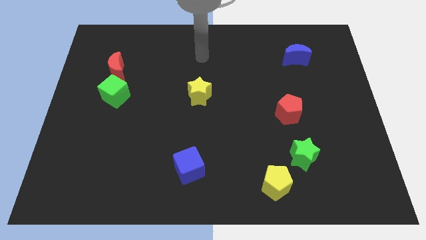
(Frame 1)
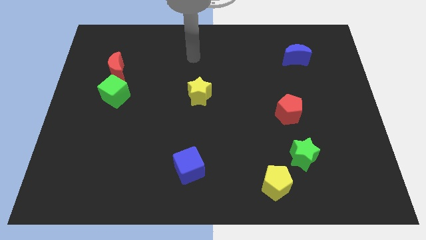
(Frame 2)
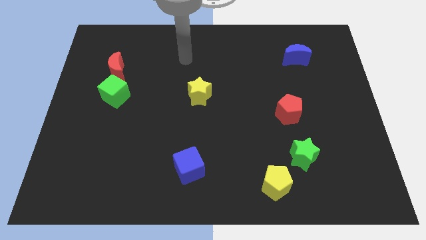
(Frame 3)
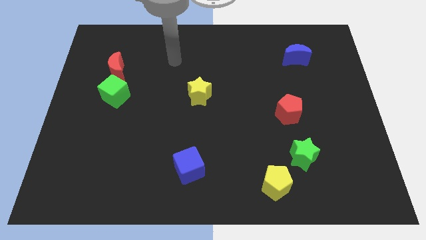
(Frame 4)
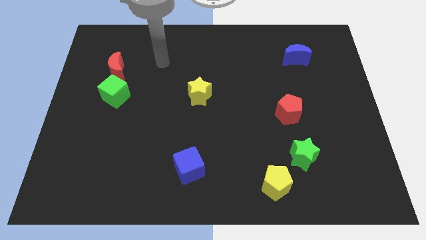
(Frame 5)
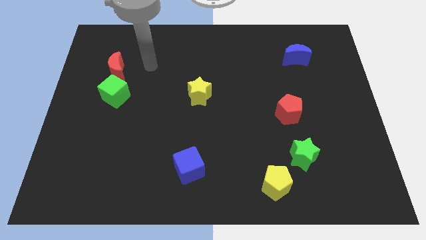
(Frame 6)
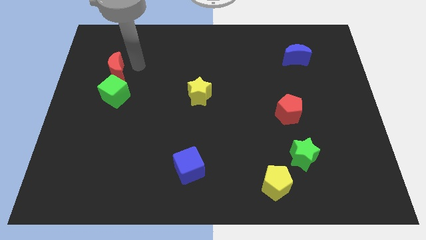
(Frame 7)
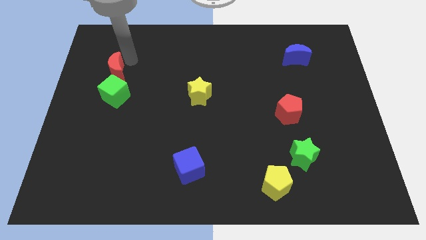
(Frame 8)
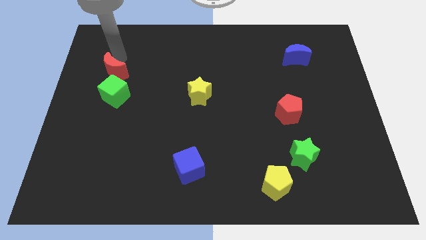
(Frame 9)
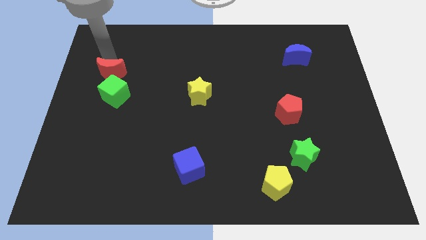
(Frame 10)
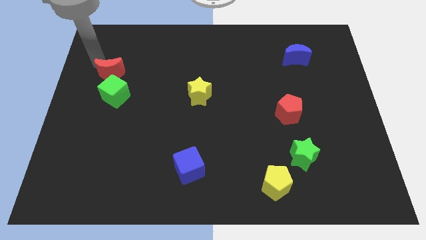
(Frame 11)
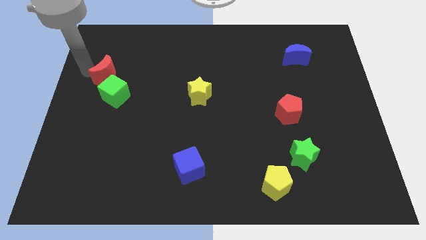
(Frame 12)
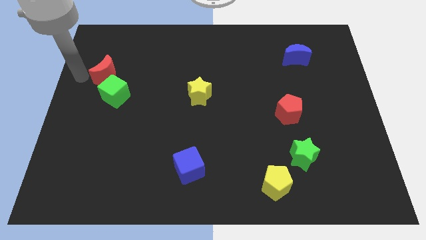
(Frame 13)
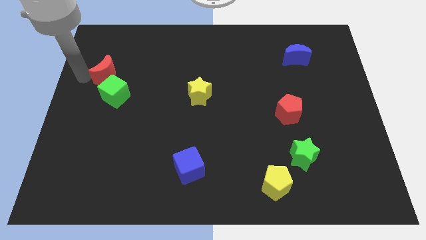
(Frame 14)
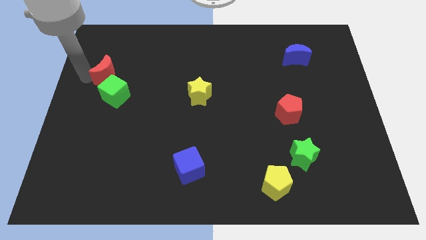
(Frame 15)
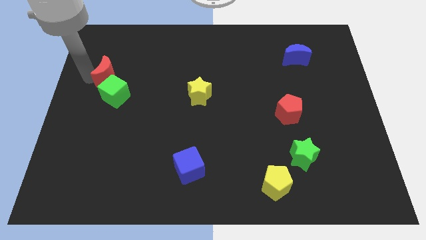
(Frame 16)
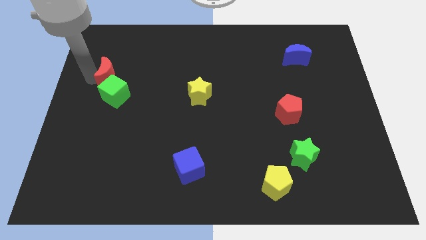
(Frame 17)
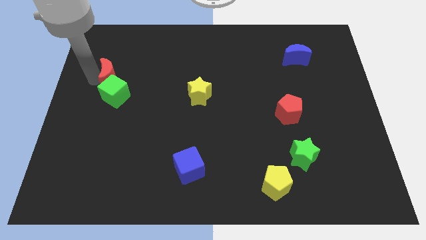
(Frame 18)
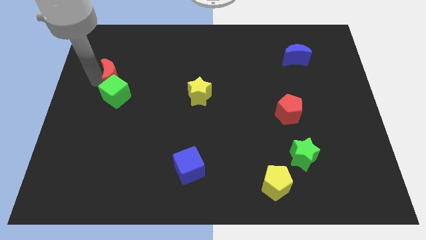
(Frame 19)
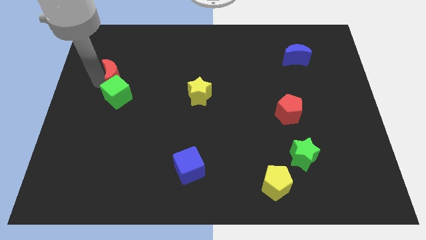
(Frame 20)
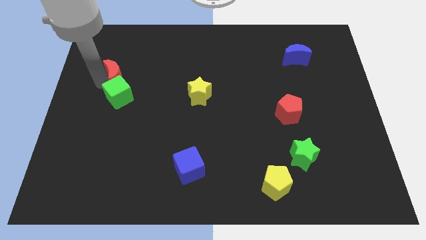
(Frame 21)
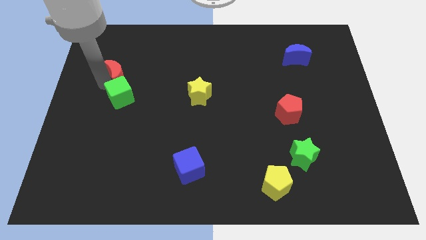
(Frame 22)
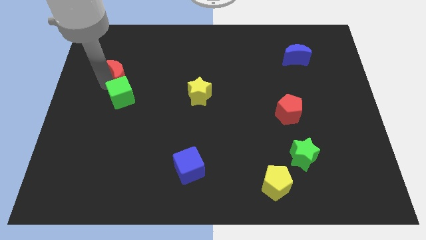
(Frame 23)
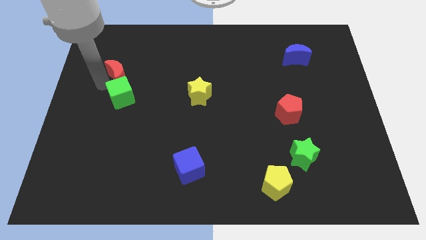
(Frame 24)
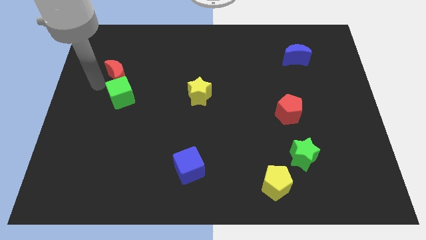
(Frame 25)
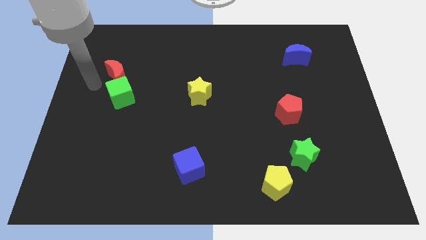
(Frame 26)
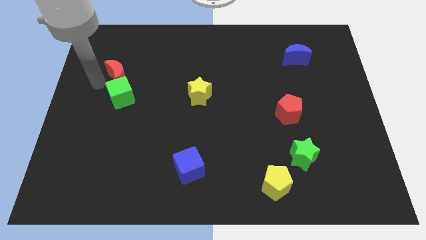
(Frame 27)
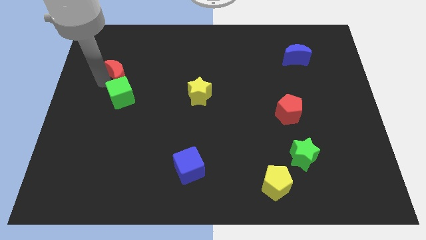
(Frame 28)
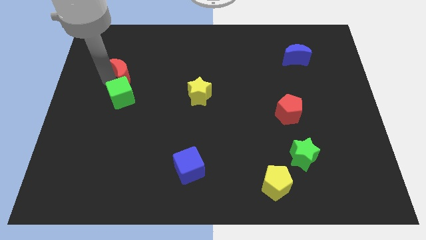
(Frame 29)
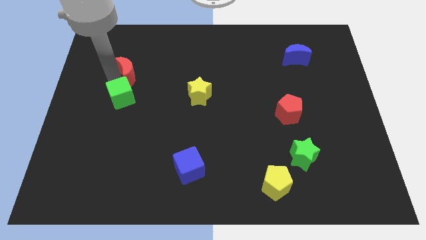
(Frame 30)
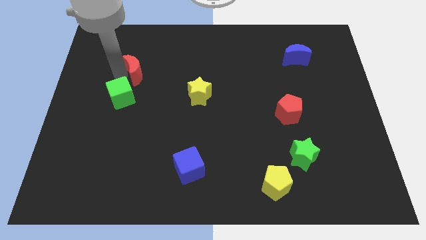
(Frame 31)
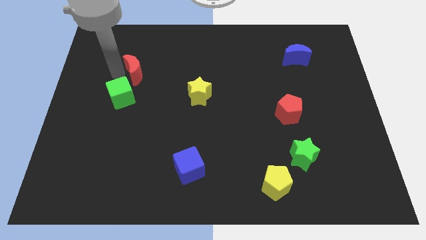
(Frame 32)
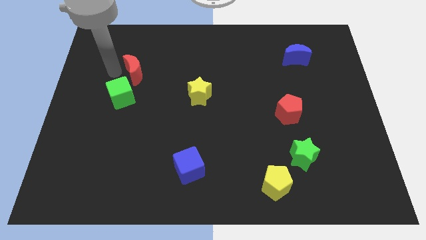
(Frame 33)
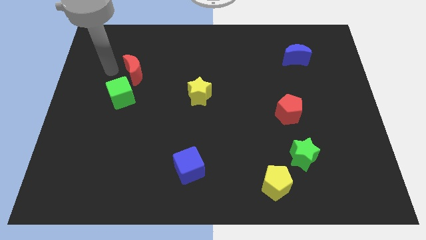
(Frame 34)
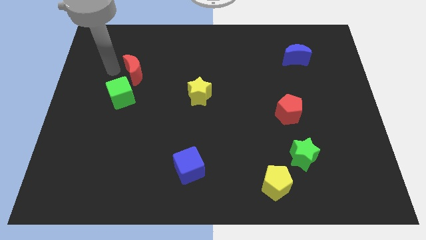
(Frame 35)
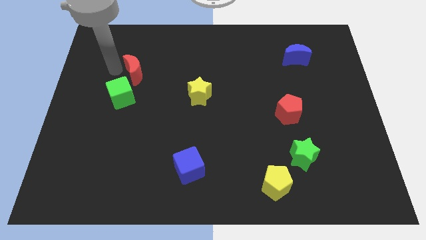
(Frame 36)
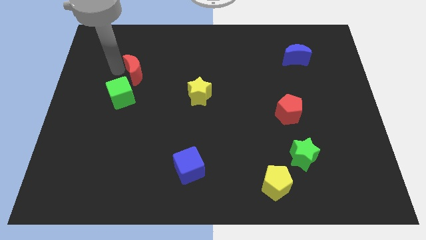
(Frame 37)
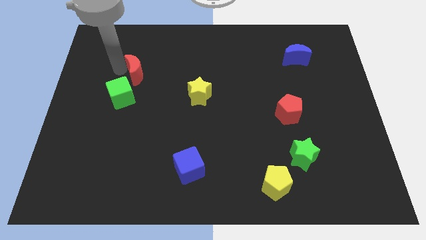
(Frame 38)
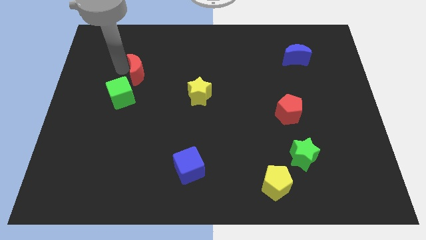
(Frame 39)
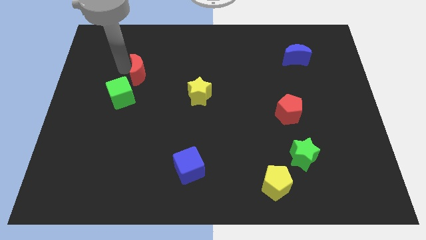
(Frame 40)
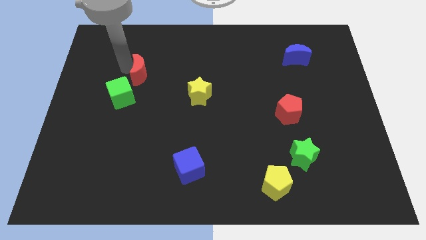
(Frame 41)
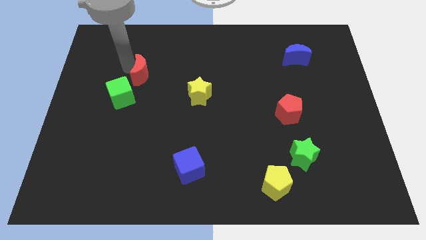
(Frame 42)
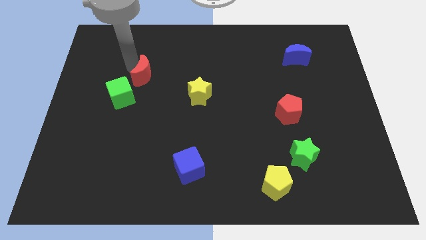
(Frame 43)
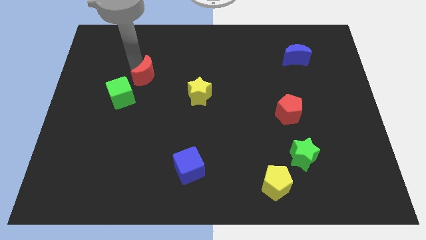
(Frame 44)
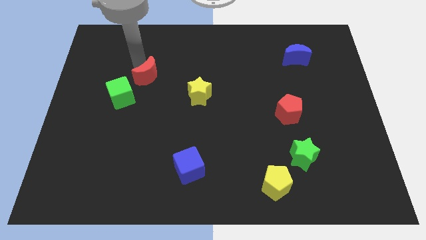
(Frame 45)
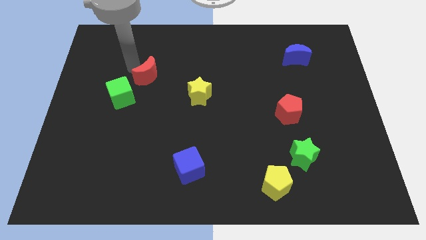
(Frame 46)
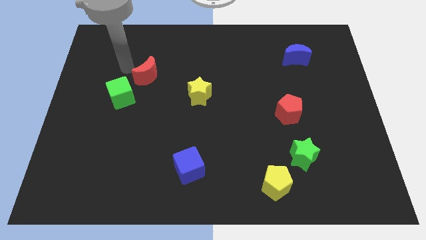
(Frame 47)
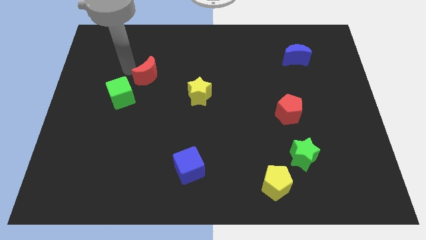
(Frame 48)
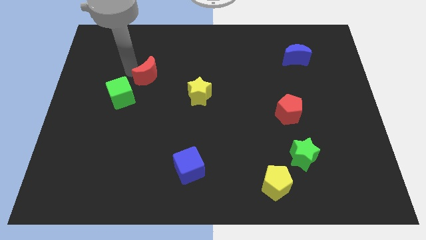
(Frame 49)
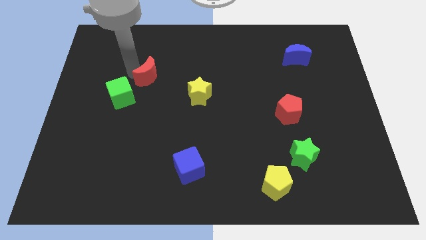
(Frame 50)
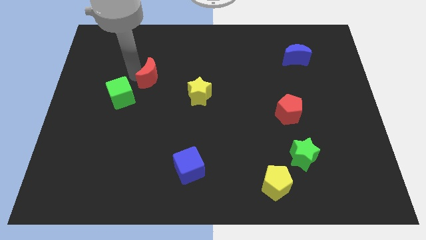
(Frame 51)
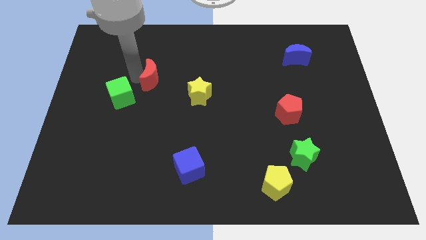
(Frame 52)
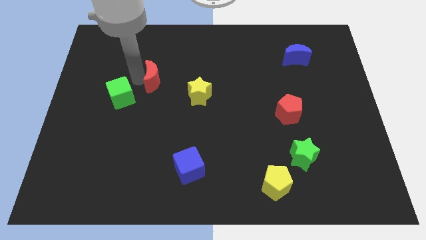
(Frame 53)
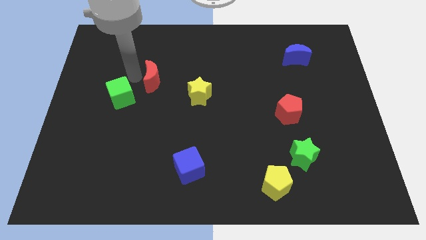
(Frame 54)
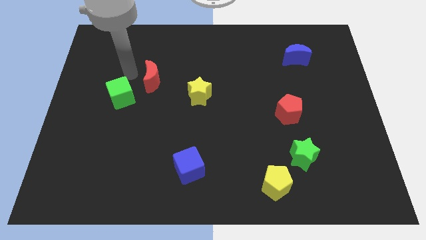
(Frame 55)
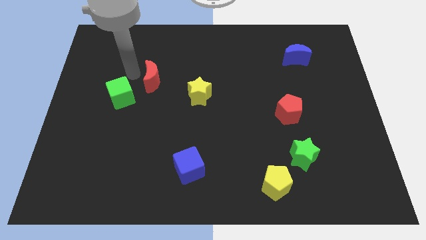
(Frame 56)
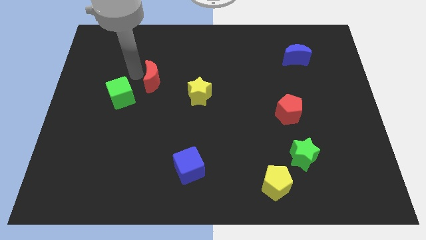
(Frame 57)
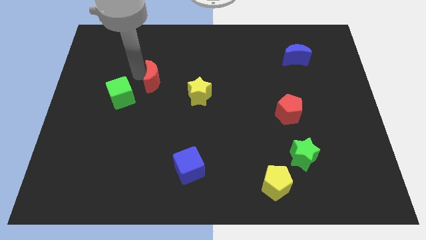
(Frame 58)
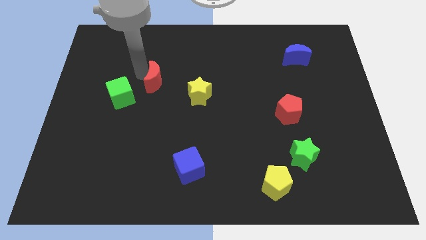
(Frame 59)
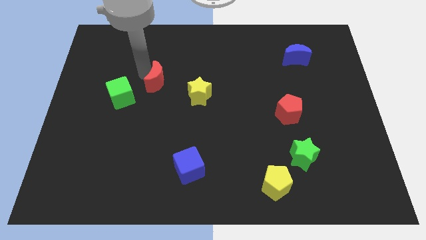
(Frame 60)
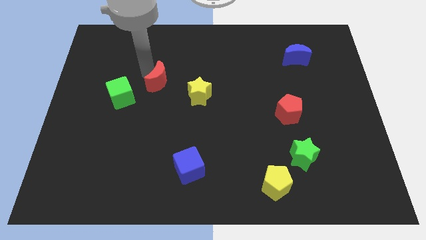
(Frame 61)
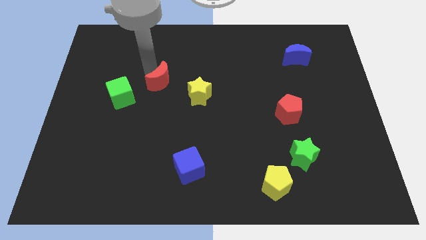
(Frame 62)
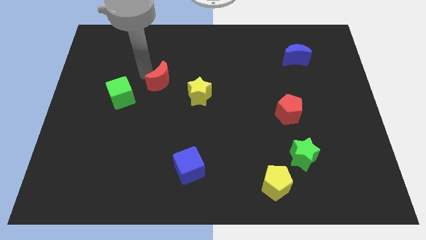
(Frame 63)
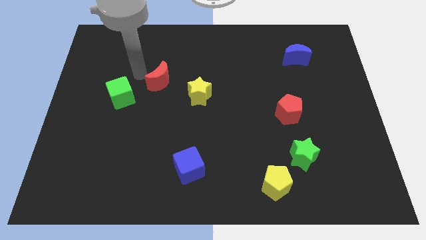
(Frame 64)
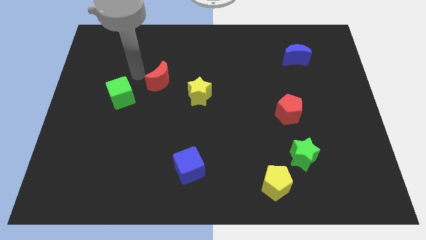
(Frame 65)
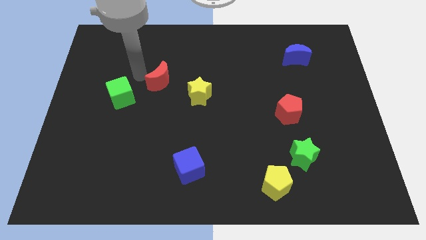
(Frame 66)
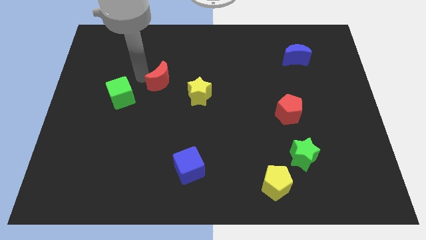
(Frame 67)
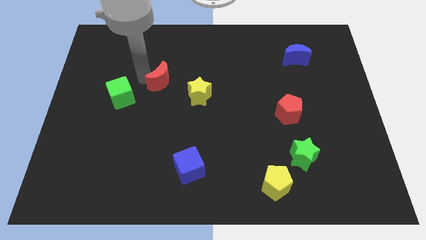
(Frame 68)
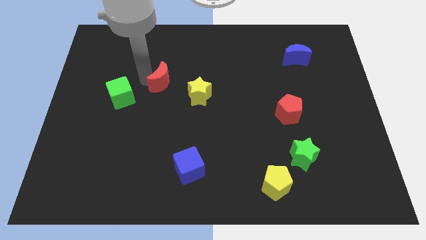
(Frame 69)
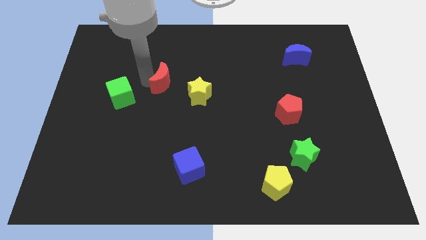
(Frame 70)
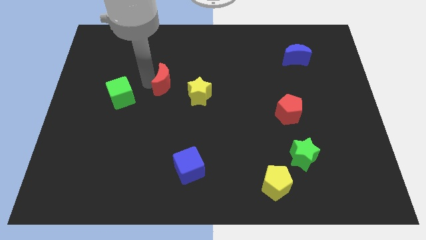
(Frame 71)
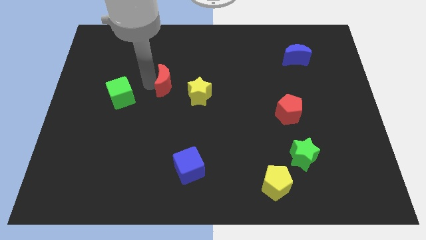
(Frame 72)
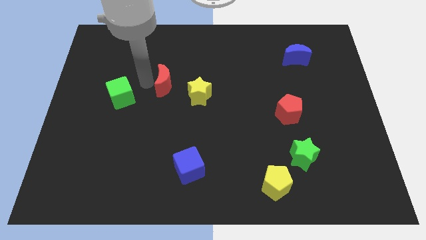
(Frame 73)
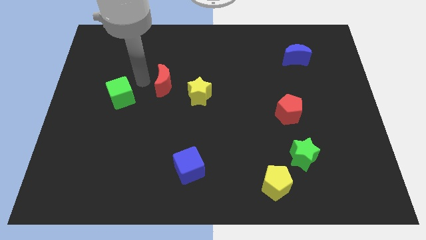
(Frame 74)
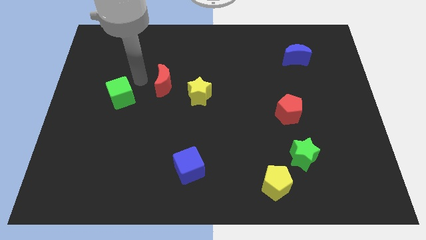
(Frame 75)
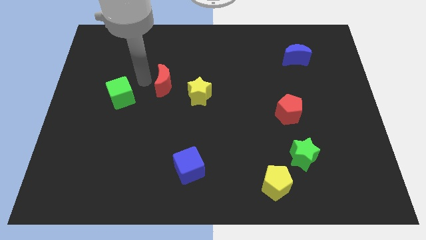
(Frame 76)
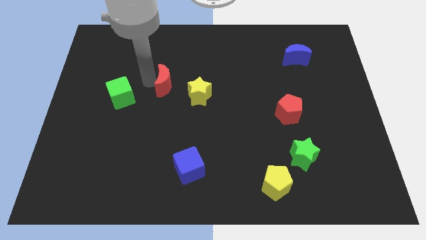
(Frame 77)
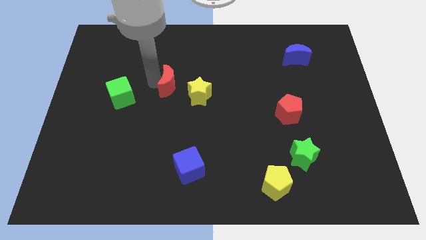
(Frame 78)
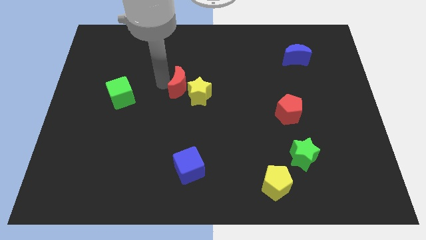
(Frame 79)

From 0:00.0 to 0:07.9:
push the red moon close to the yellow star
